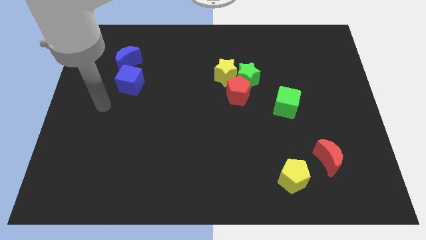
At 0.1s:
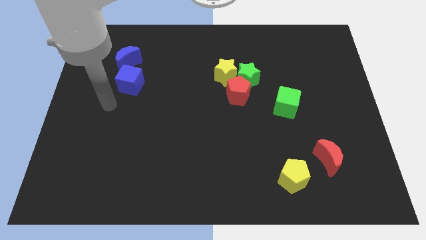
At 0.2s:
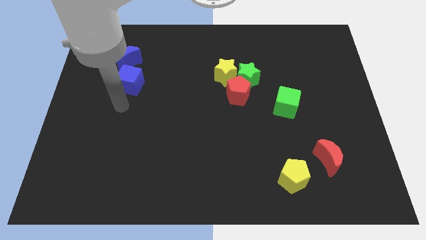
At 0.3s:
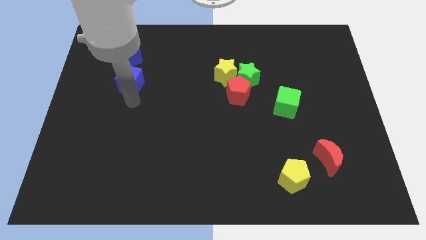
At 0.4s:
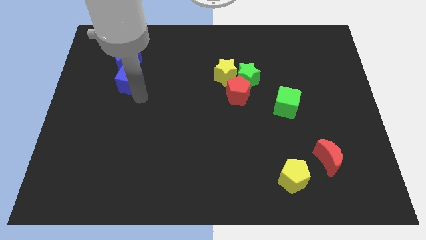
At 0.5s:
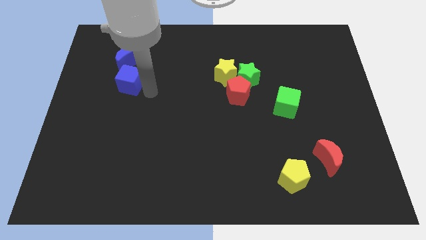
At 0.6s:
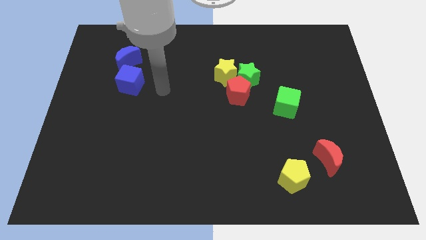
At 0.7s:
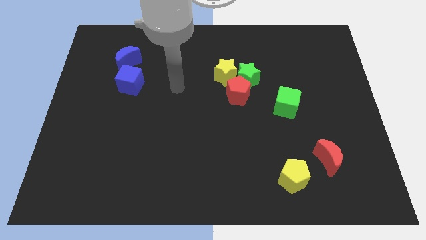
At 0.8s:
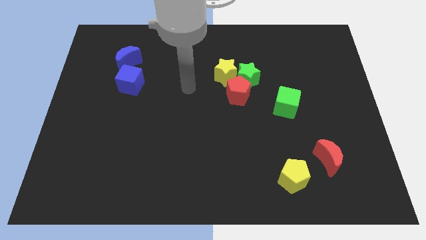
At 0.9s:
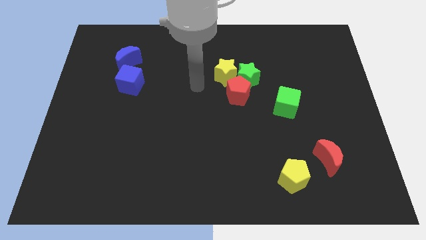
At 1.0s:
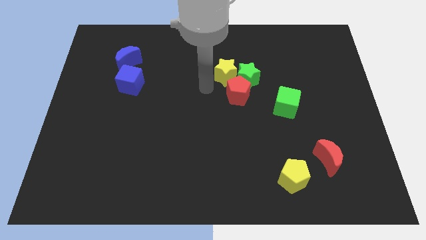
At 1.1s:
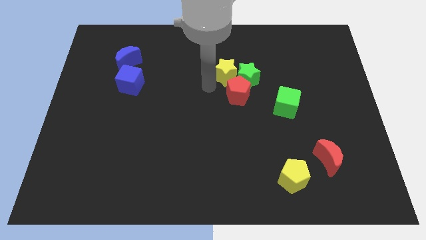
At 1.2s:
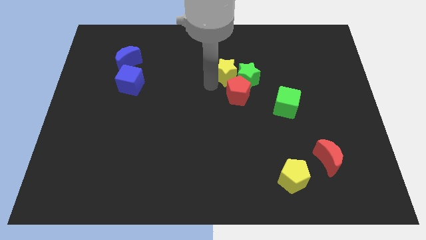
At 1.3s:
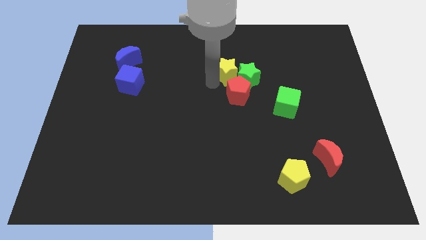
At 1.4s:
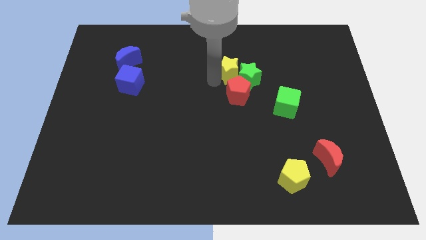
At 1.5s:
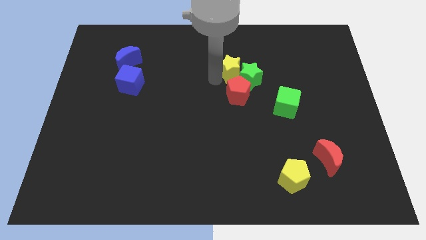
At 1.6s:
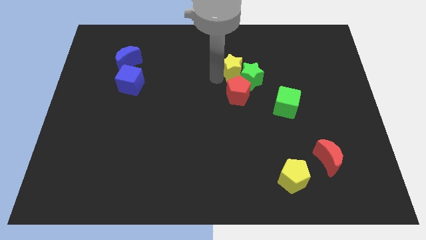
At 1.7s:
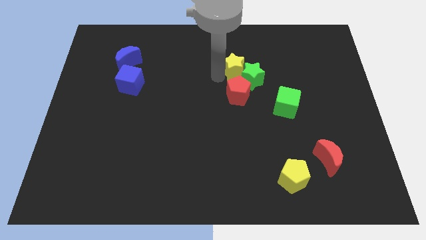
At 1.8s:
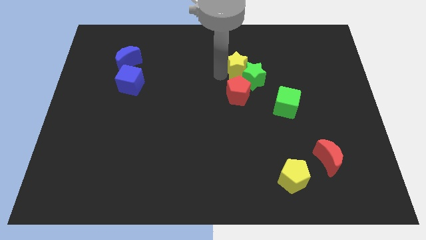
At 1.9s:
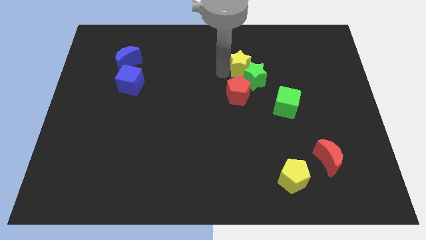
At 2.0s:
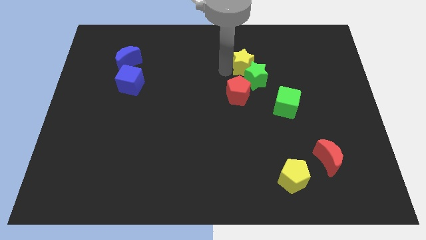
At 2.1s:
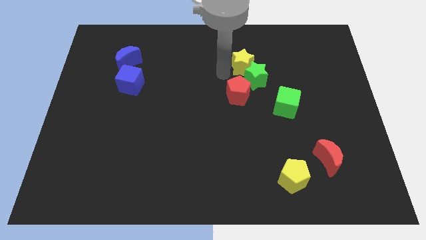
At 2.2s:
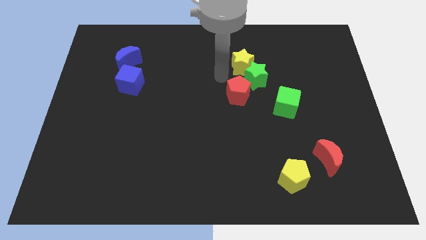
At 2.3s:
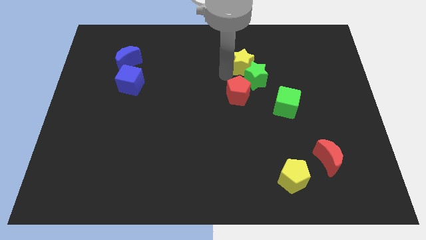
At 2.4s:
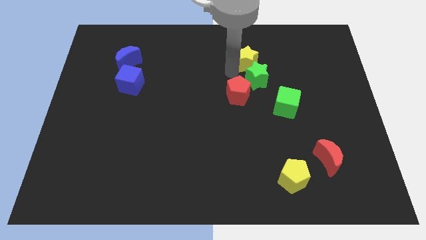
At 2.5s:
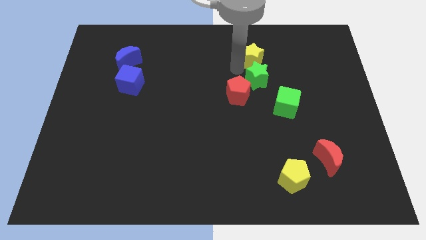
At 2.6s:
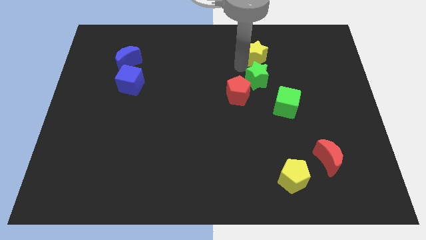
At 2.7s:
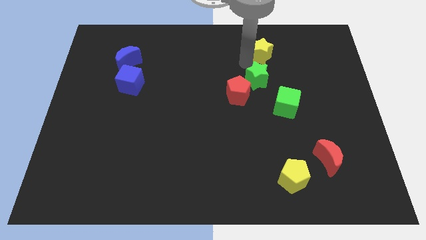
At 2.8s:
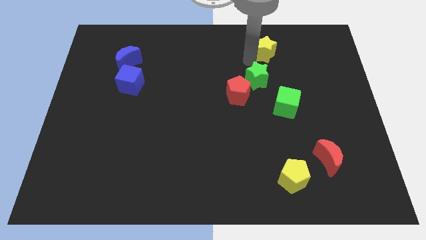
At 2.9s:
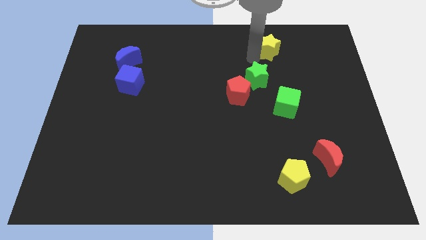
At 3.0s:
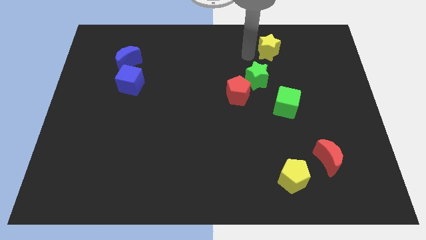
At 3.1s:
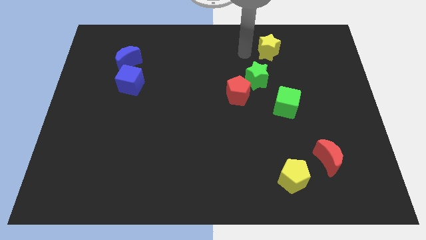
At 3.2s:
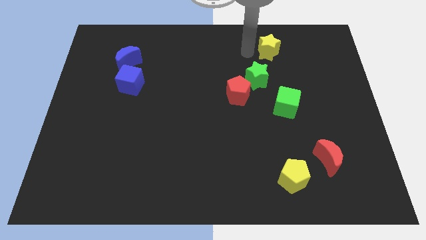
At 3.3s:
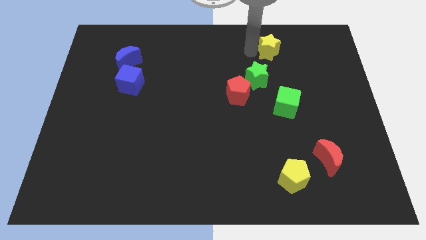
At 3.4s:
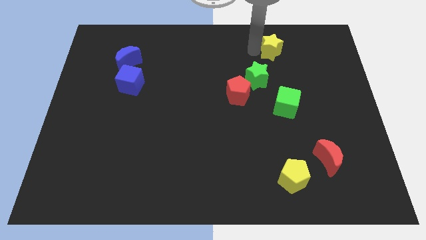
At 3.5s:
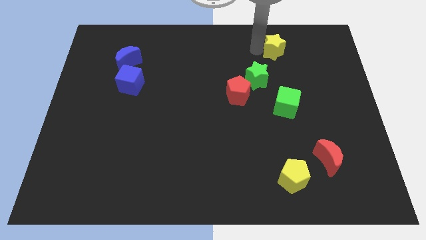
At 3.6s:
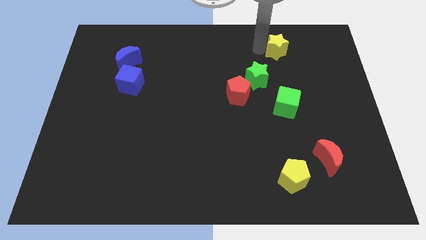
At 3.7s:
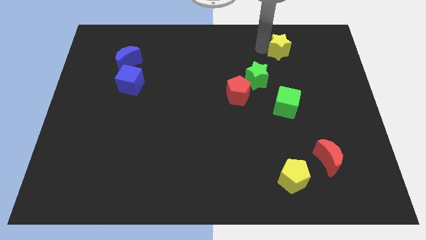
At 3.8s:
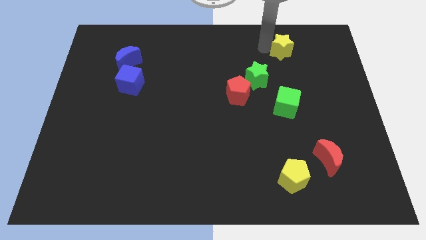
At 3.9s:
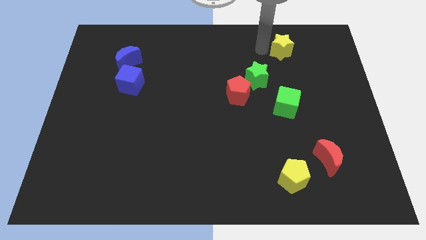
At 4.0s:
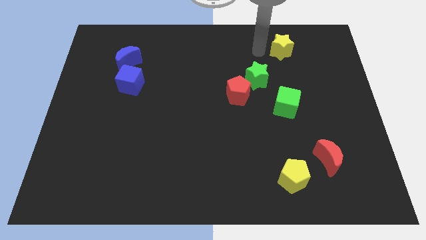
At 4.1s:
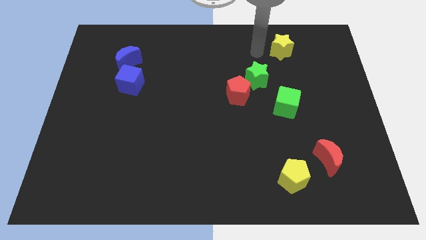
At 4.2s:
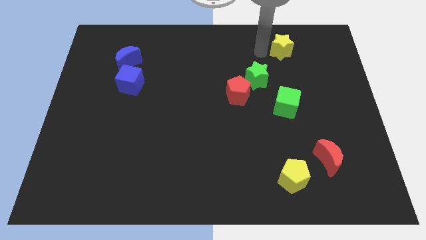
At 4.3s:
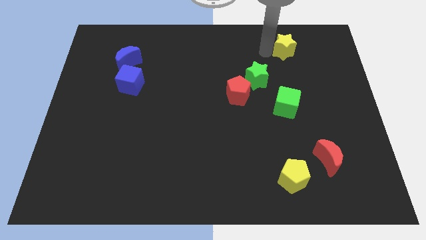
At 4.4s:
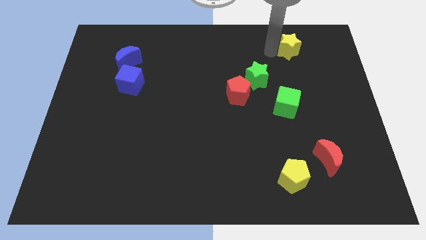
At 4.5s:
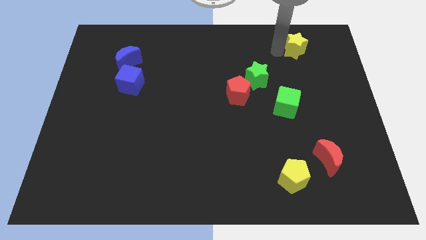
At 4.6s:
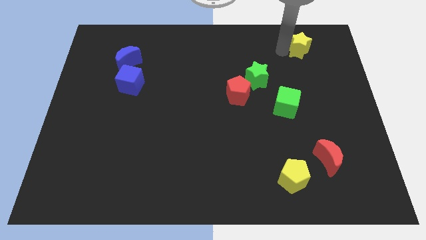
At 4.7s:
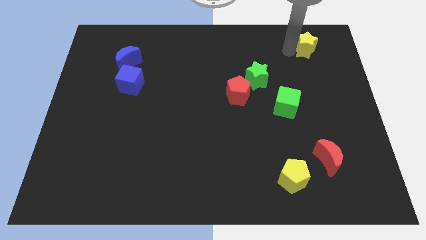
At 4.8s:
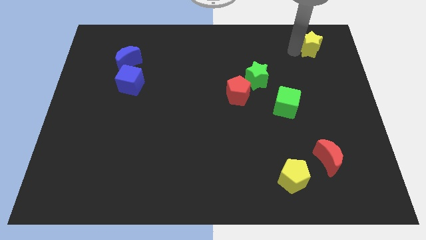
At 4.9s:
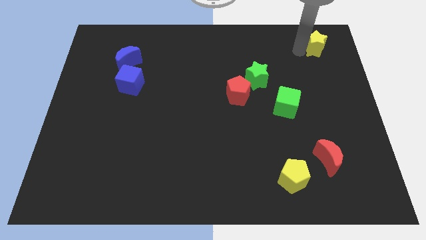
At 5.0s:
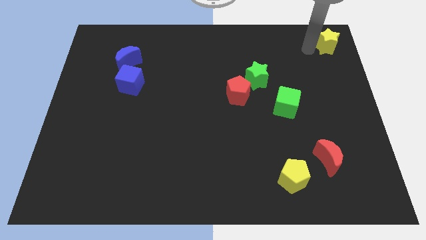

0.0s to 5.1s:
push the yellow star to the top right of the board

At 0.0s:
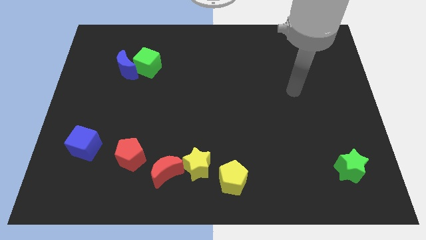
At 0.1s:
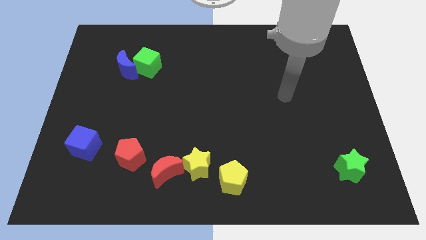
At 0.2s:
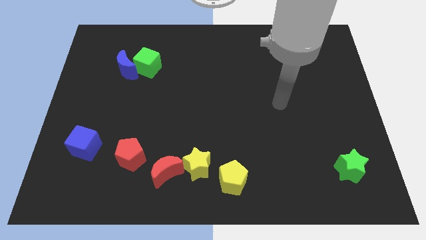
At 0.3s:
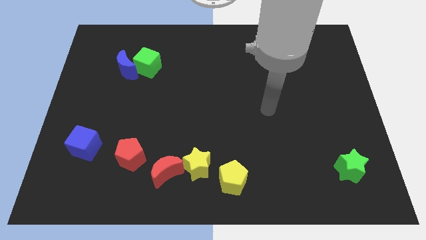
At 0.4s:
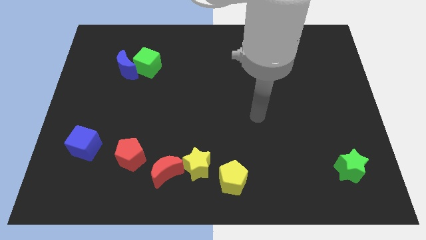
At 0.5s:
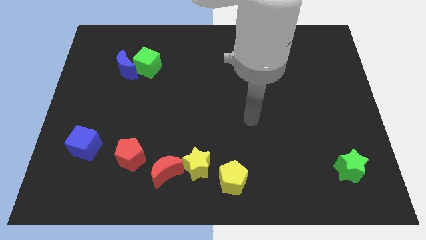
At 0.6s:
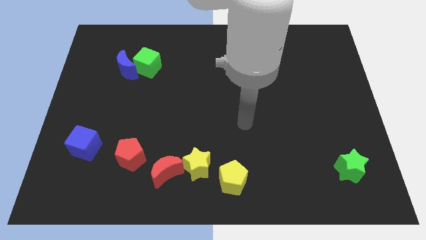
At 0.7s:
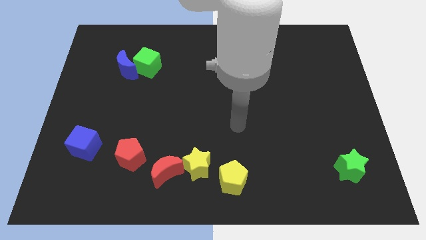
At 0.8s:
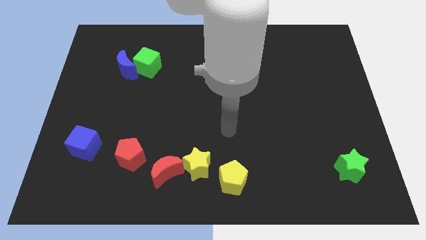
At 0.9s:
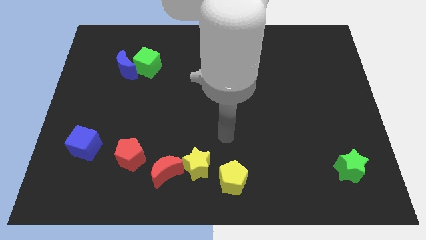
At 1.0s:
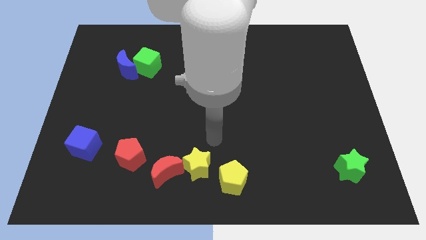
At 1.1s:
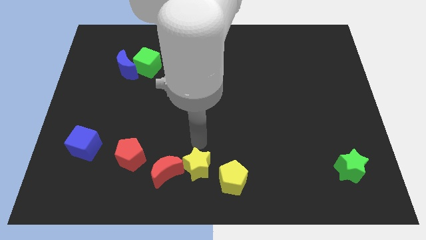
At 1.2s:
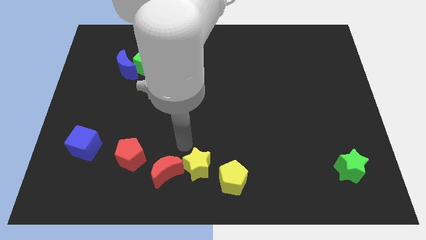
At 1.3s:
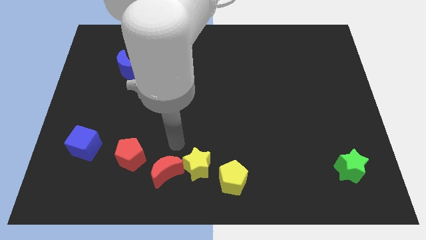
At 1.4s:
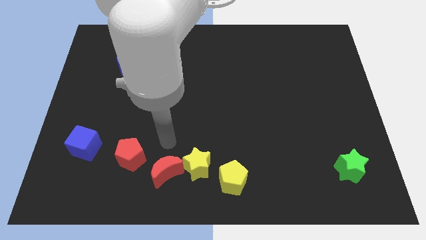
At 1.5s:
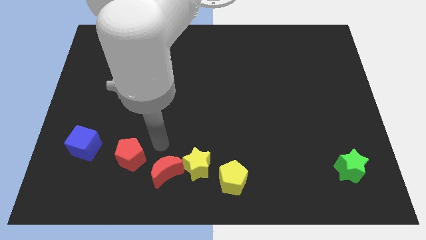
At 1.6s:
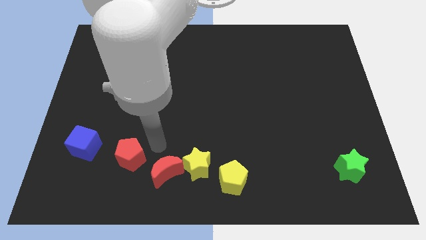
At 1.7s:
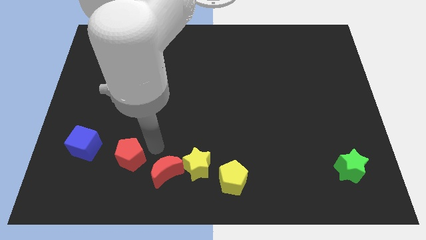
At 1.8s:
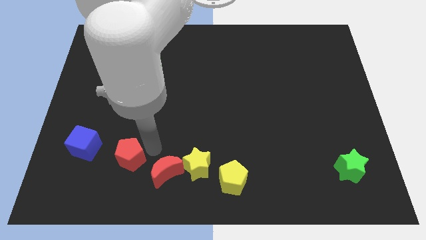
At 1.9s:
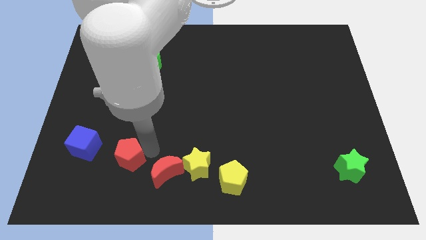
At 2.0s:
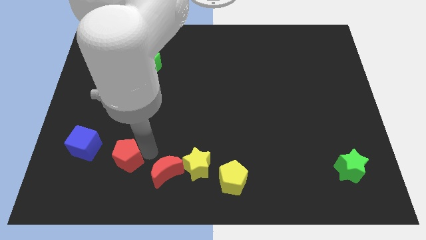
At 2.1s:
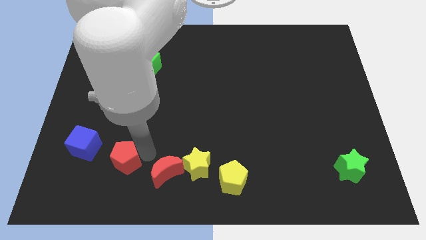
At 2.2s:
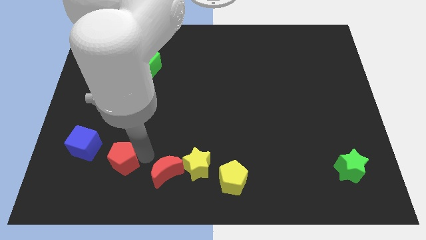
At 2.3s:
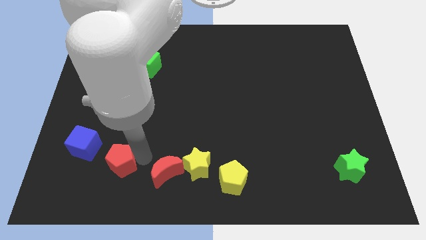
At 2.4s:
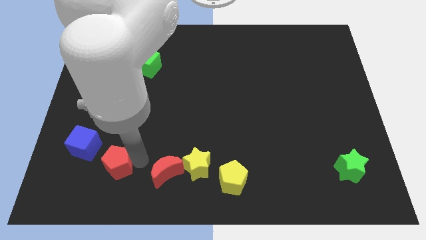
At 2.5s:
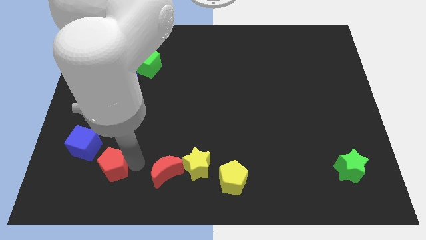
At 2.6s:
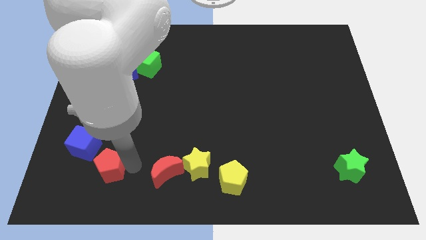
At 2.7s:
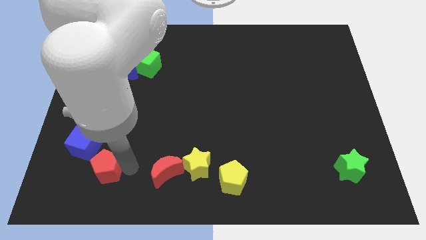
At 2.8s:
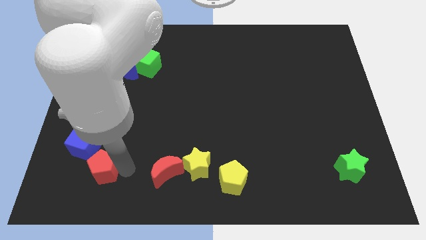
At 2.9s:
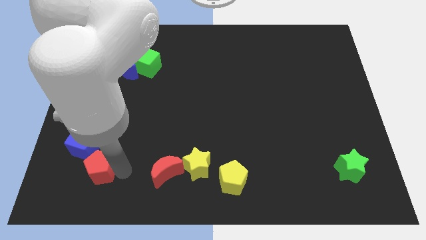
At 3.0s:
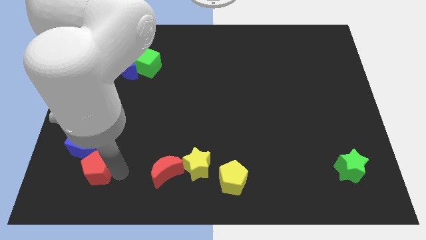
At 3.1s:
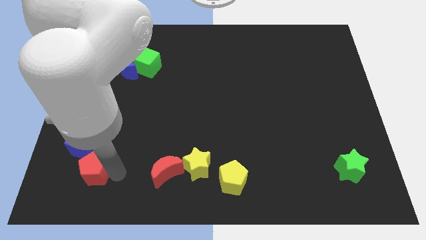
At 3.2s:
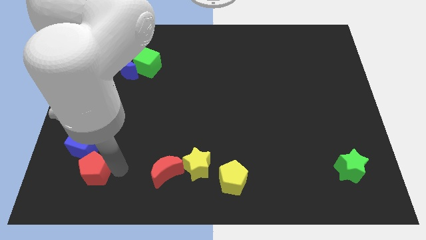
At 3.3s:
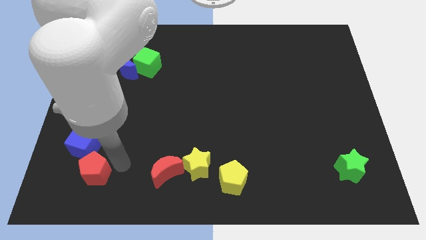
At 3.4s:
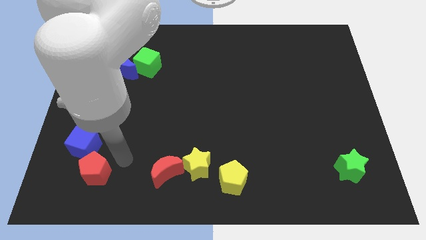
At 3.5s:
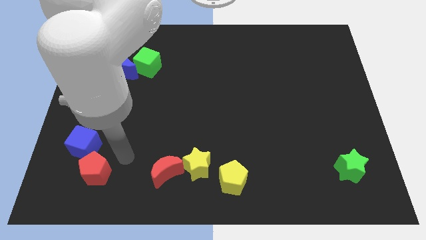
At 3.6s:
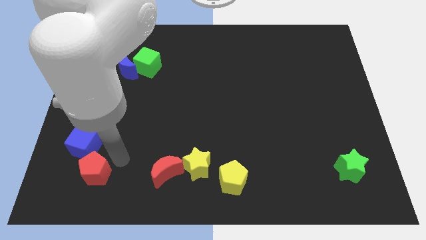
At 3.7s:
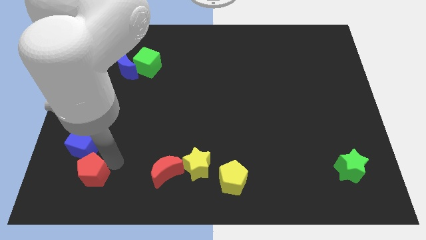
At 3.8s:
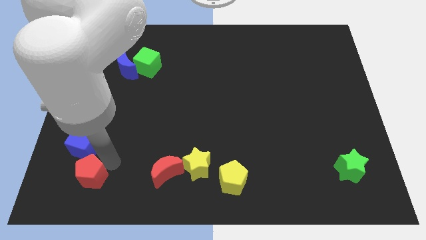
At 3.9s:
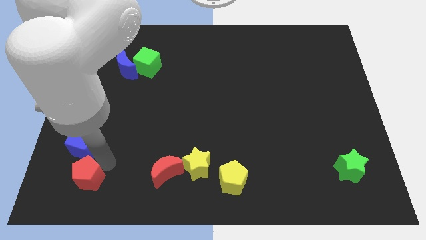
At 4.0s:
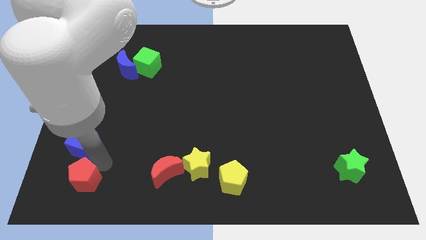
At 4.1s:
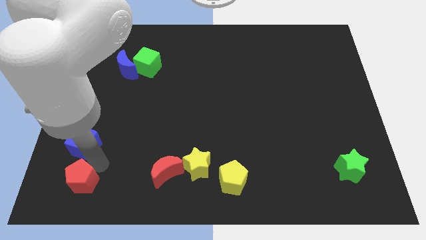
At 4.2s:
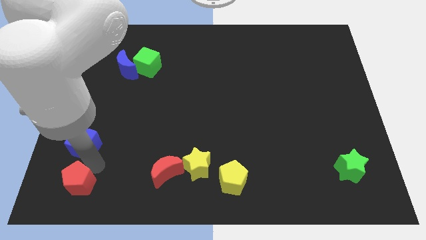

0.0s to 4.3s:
put the red pentagon to the bottom left of the board
